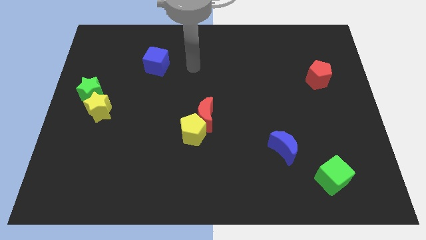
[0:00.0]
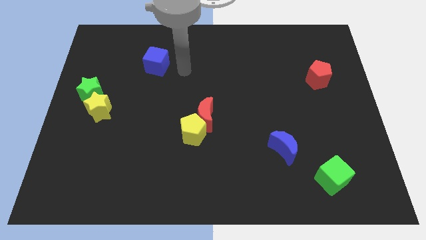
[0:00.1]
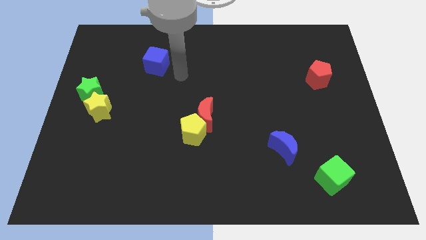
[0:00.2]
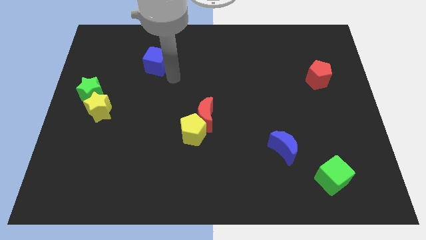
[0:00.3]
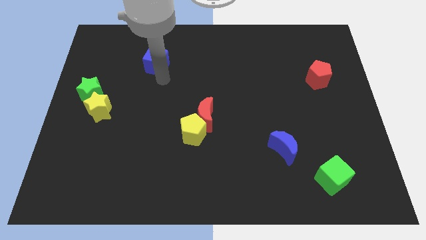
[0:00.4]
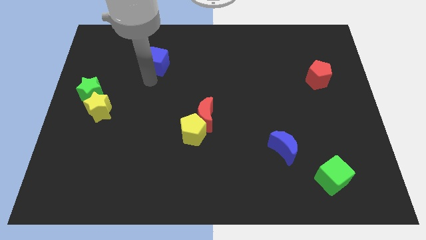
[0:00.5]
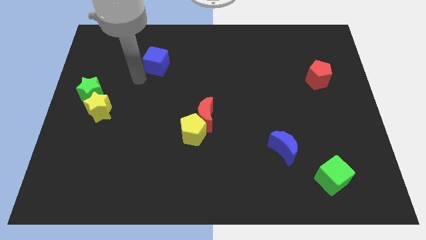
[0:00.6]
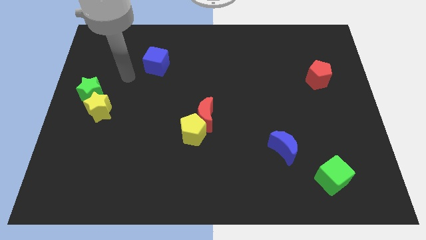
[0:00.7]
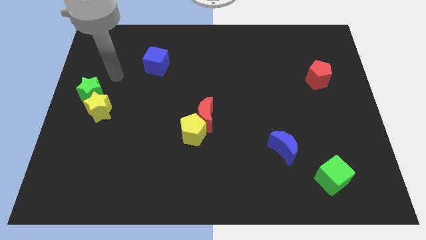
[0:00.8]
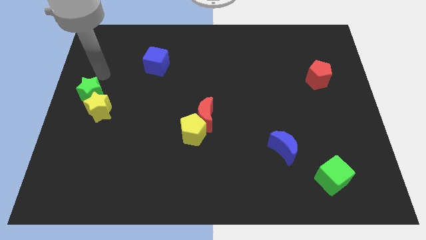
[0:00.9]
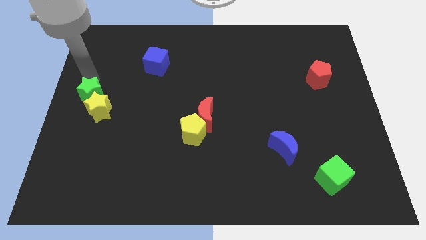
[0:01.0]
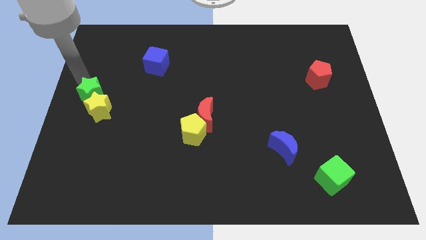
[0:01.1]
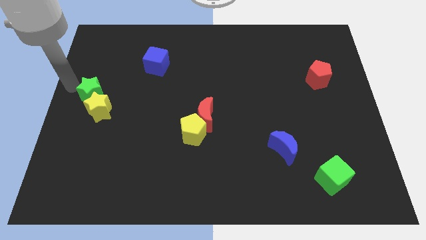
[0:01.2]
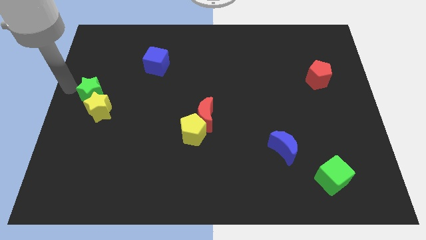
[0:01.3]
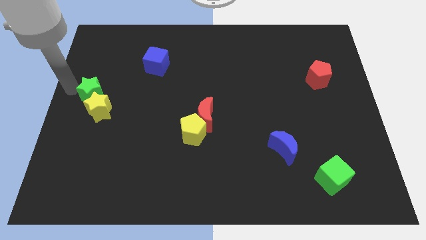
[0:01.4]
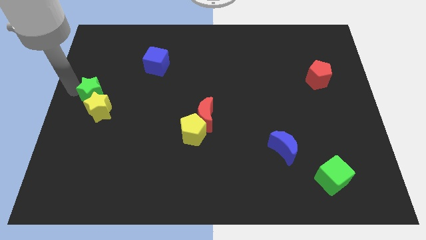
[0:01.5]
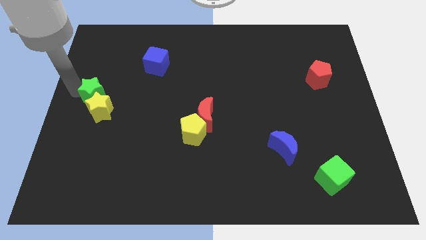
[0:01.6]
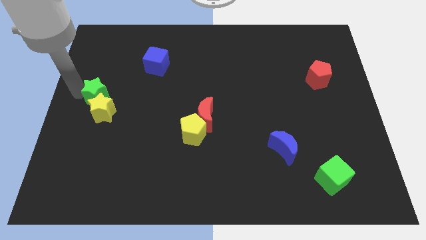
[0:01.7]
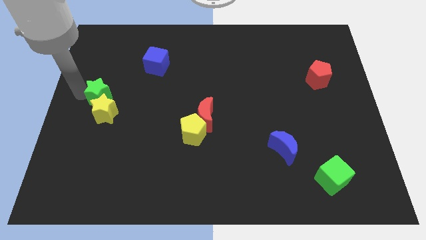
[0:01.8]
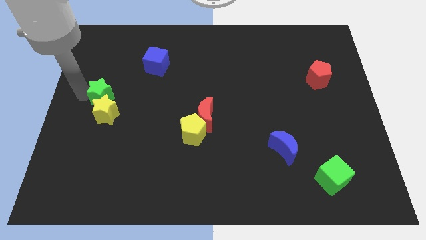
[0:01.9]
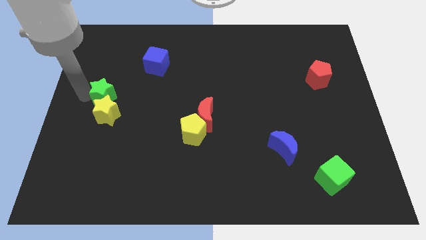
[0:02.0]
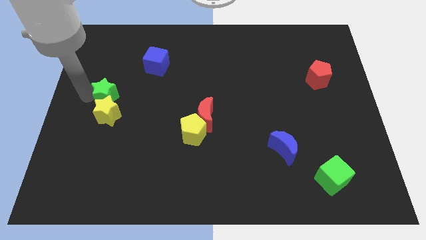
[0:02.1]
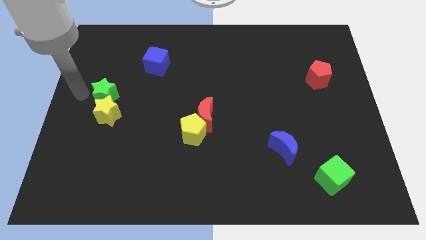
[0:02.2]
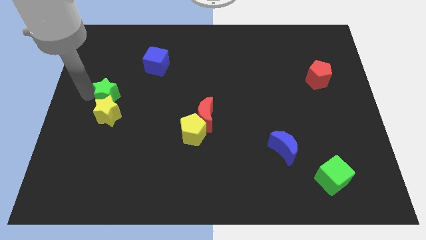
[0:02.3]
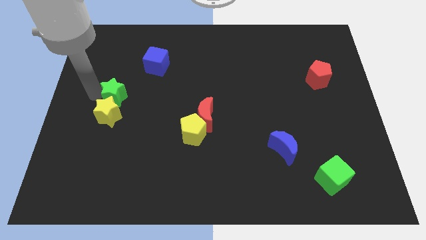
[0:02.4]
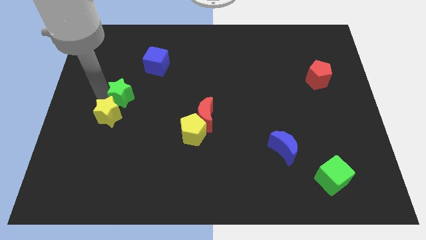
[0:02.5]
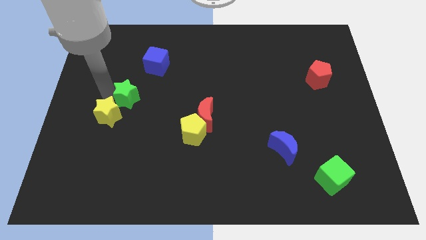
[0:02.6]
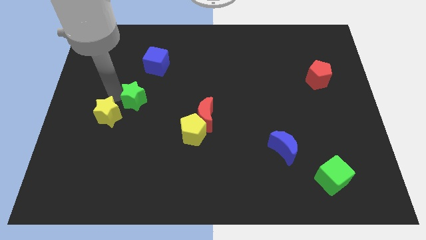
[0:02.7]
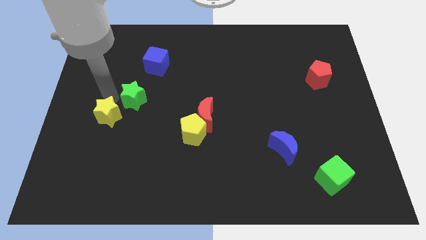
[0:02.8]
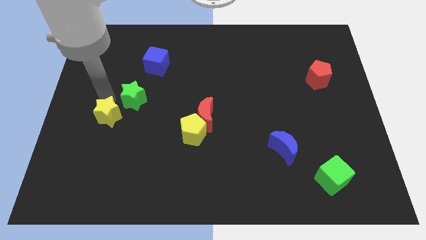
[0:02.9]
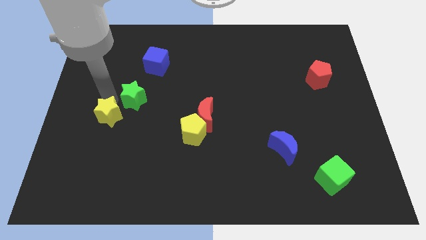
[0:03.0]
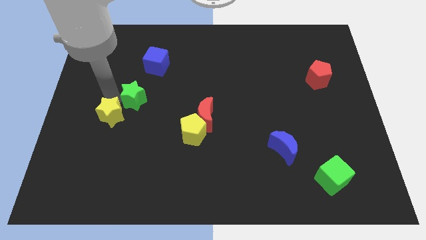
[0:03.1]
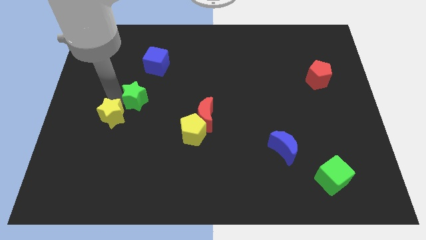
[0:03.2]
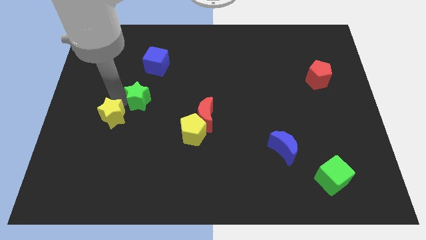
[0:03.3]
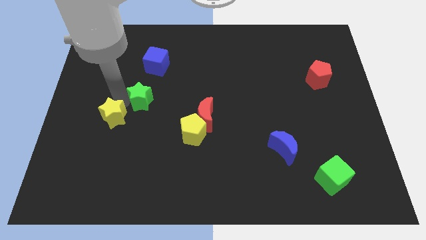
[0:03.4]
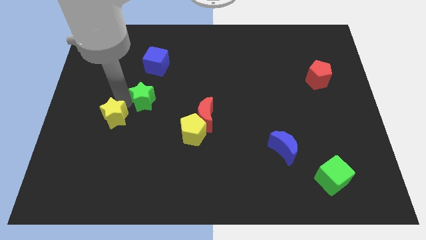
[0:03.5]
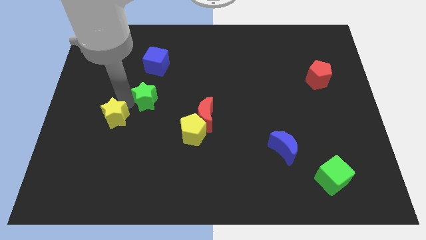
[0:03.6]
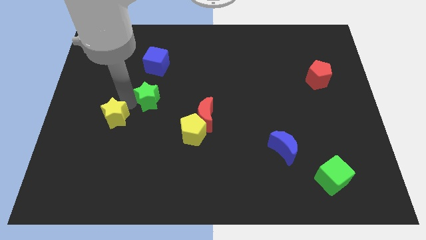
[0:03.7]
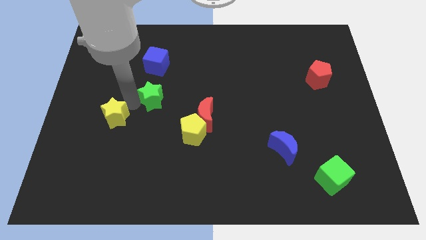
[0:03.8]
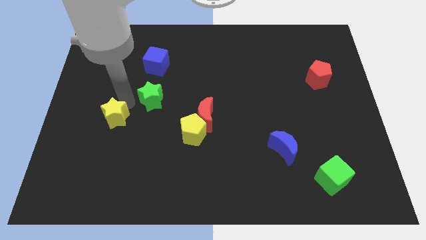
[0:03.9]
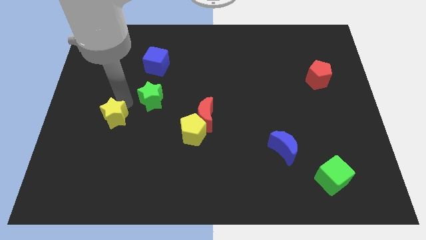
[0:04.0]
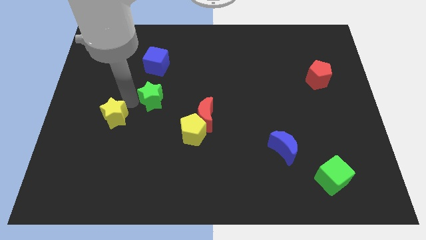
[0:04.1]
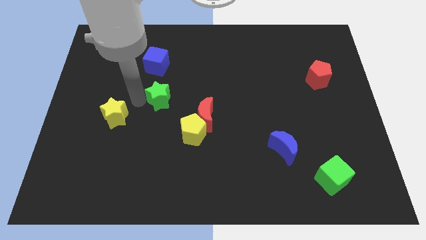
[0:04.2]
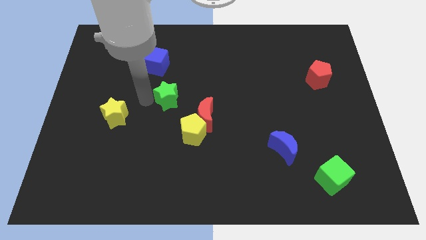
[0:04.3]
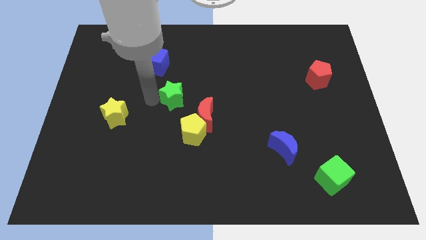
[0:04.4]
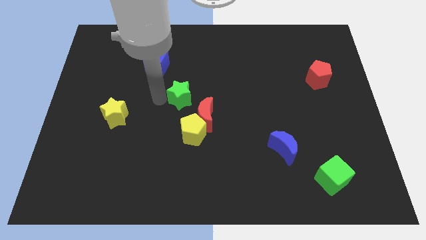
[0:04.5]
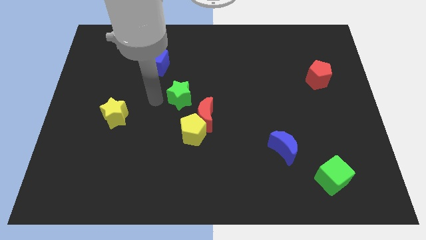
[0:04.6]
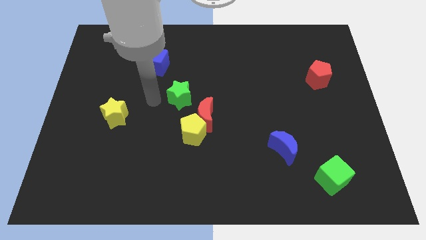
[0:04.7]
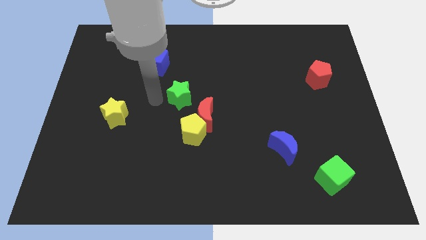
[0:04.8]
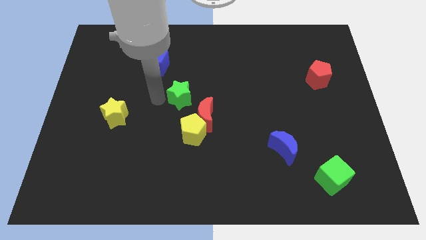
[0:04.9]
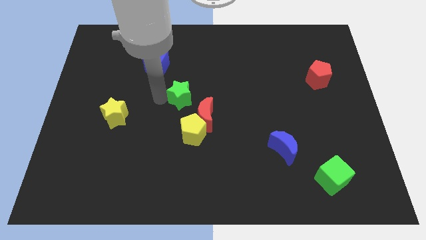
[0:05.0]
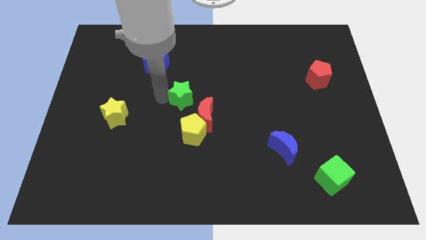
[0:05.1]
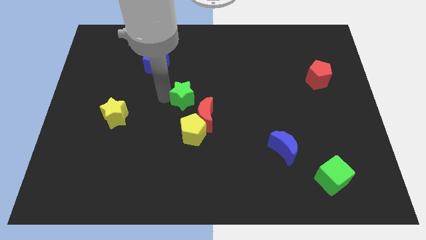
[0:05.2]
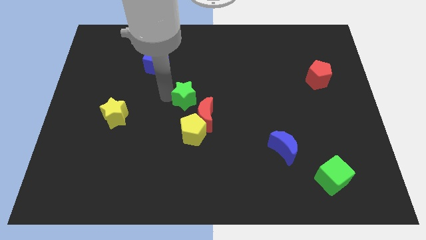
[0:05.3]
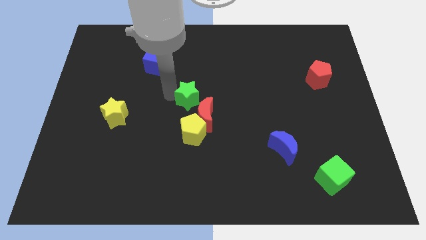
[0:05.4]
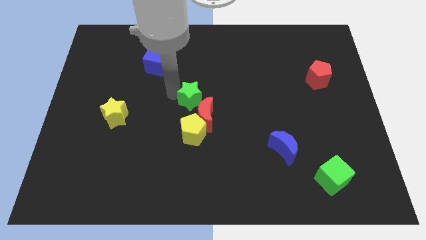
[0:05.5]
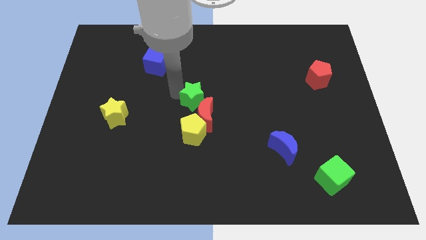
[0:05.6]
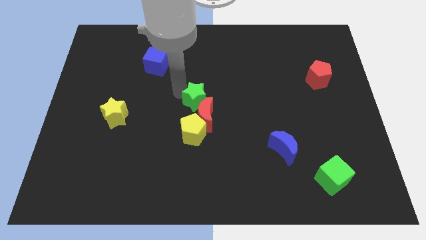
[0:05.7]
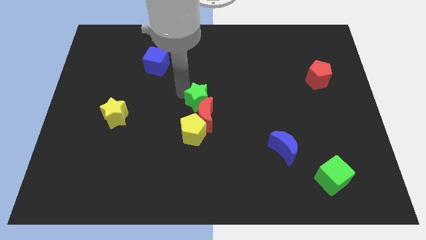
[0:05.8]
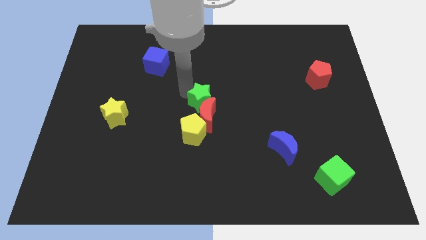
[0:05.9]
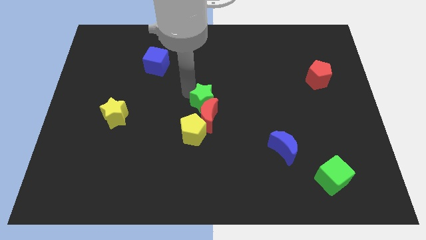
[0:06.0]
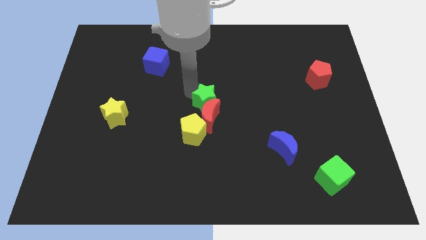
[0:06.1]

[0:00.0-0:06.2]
slide the green star to the top right side of the yellow pentagon

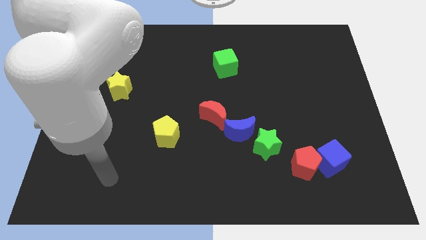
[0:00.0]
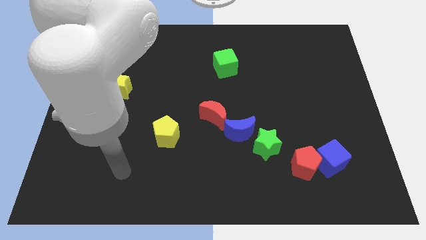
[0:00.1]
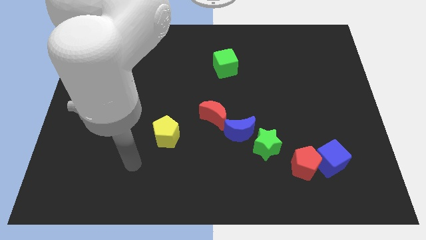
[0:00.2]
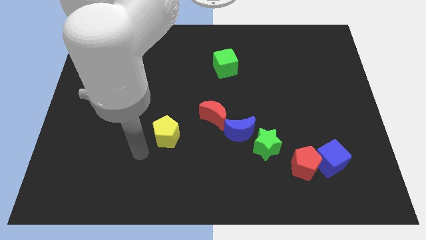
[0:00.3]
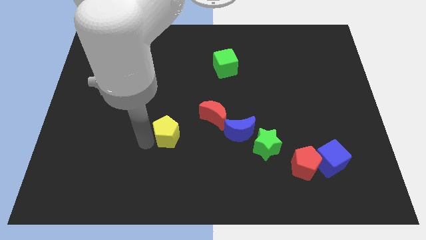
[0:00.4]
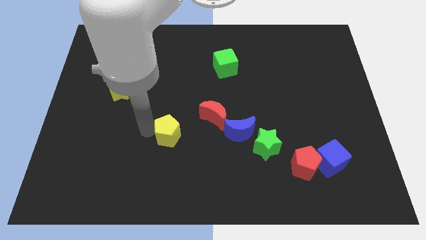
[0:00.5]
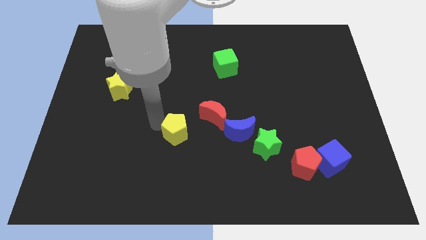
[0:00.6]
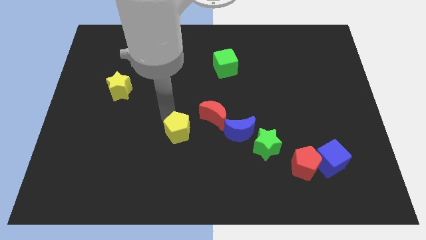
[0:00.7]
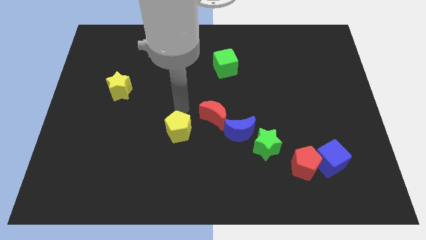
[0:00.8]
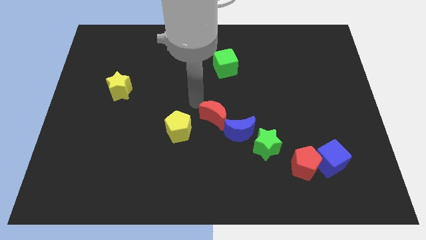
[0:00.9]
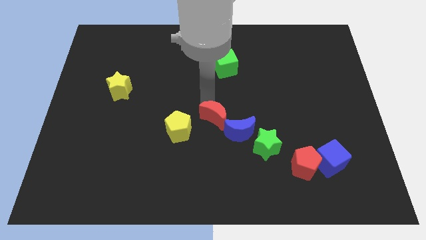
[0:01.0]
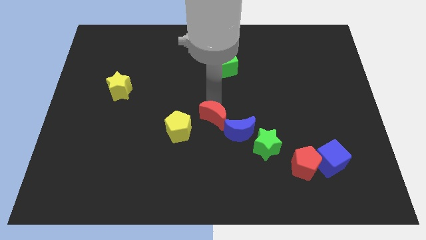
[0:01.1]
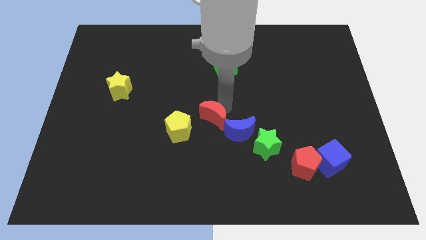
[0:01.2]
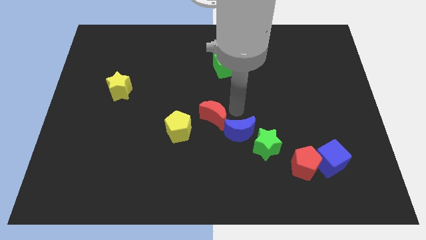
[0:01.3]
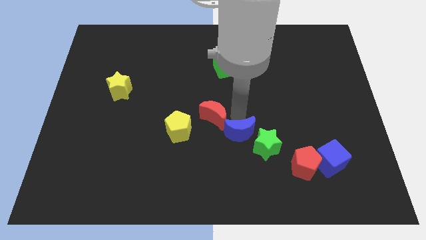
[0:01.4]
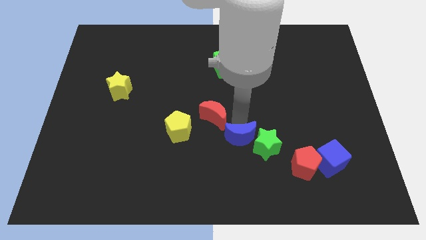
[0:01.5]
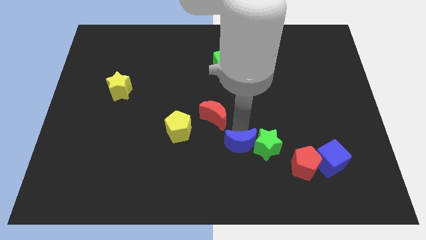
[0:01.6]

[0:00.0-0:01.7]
put the blue moon to the bottom left side of the green star
